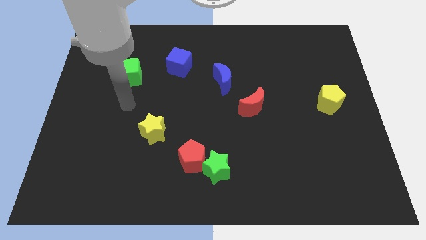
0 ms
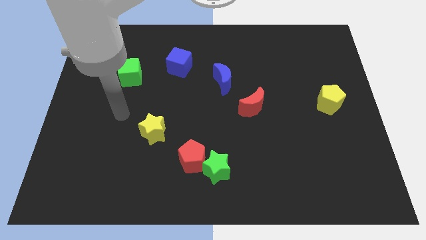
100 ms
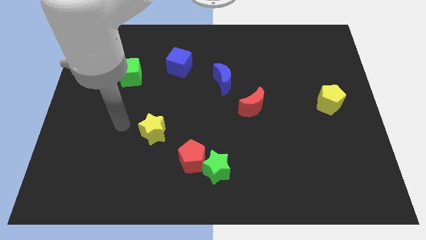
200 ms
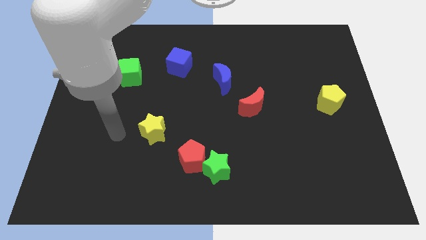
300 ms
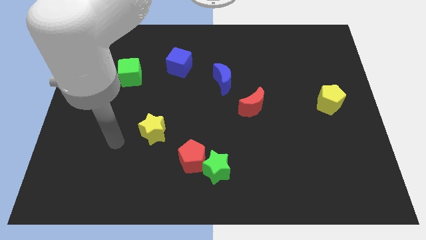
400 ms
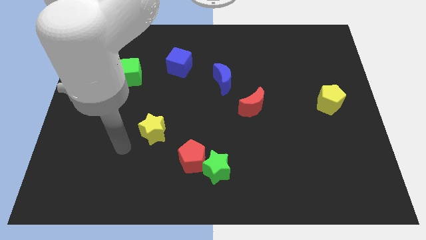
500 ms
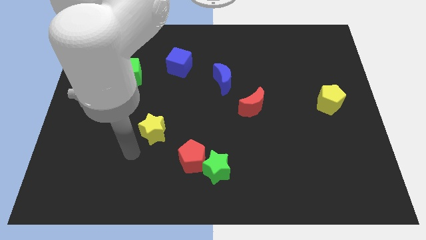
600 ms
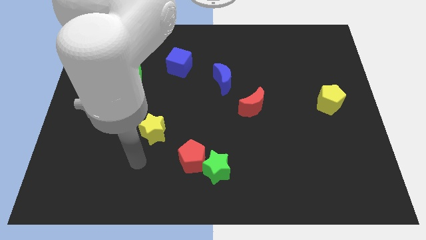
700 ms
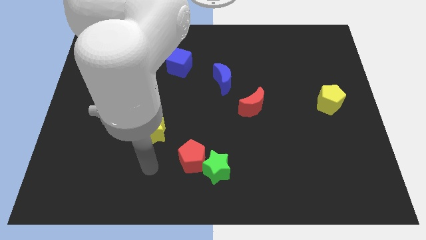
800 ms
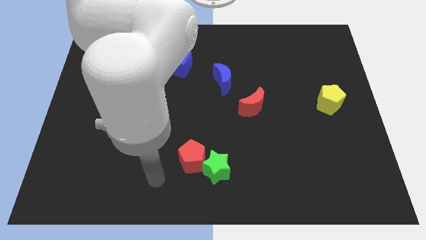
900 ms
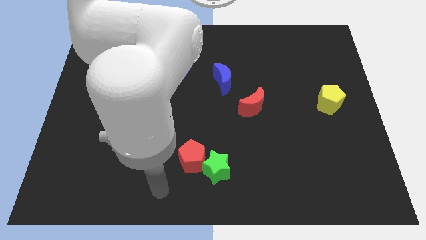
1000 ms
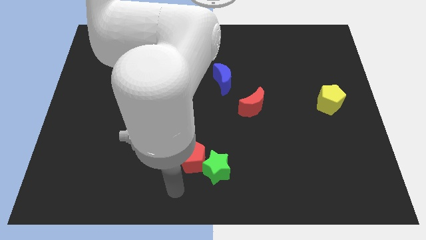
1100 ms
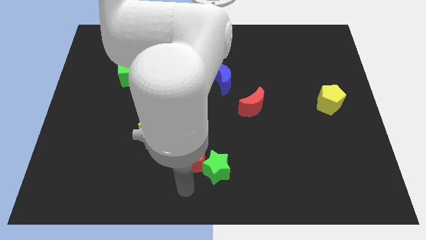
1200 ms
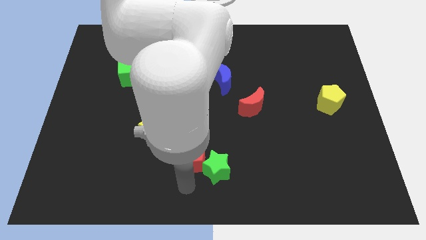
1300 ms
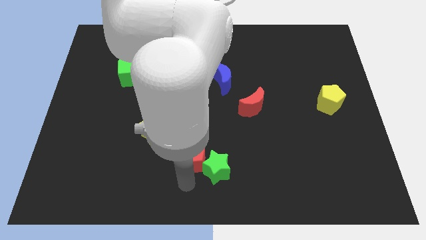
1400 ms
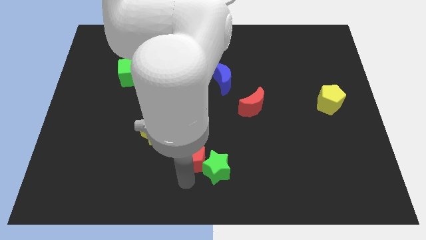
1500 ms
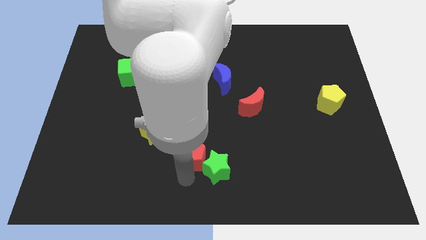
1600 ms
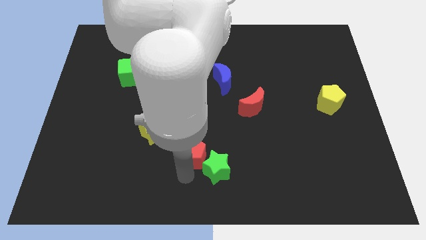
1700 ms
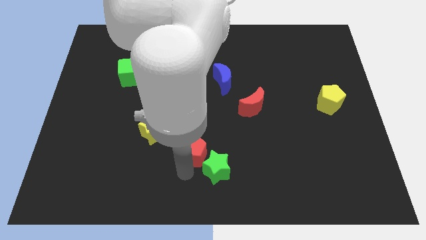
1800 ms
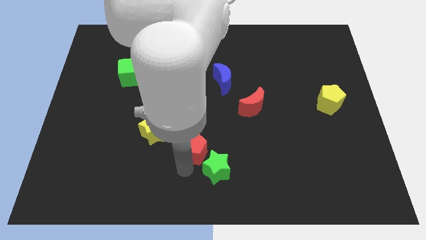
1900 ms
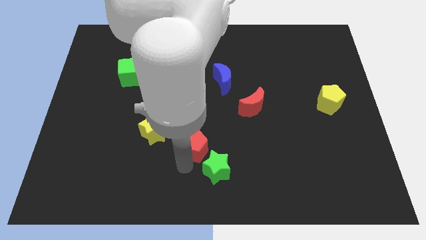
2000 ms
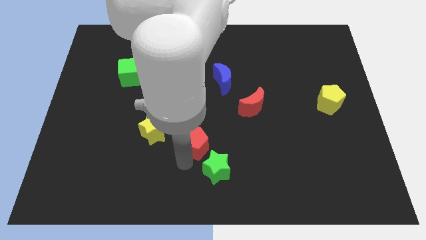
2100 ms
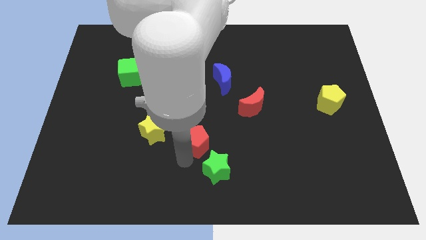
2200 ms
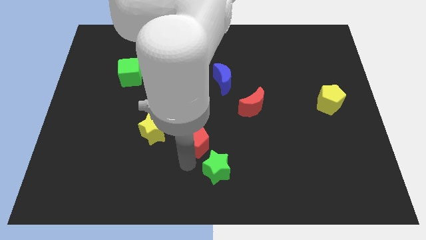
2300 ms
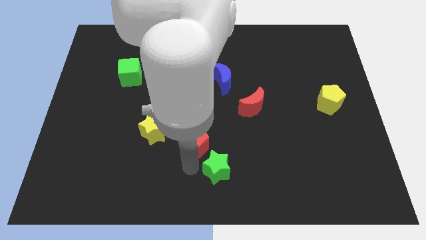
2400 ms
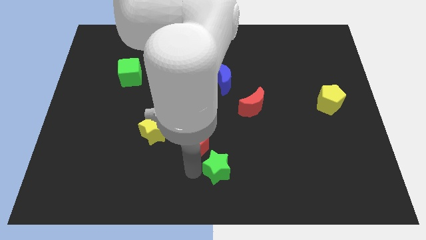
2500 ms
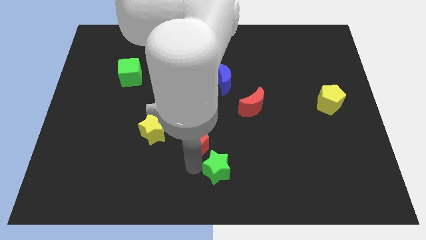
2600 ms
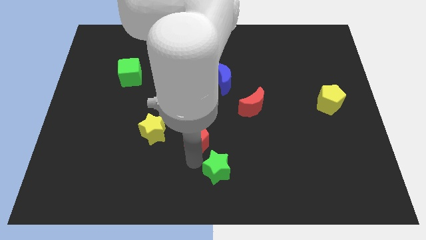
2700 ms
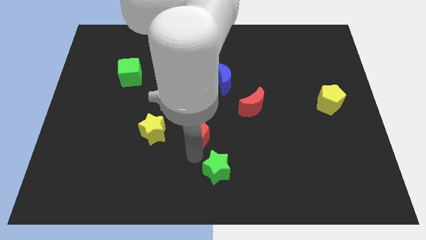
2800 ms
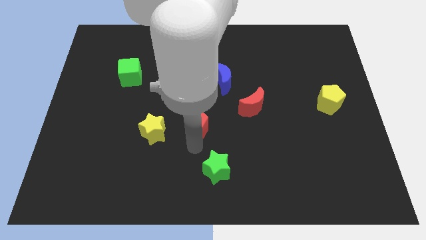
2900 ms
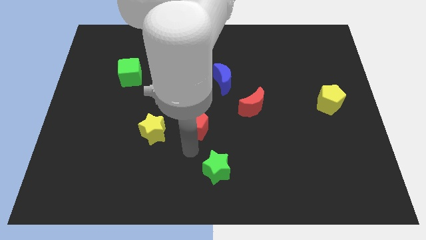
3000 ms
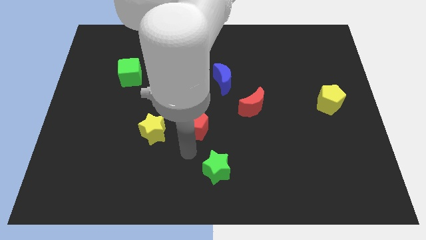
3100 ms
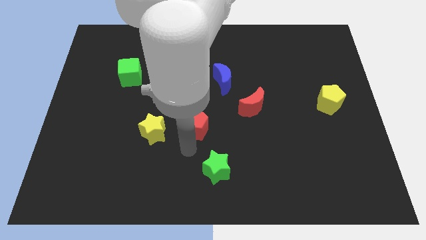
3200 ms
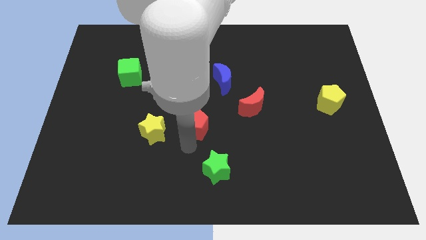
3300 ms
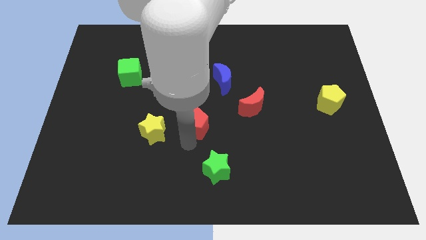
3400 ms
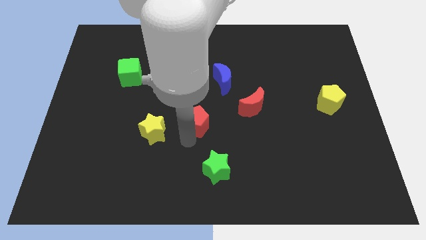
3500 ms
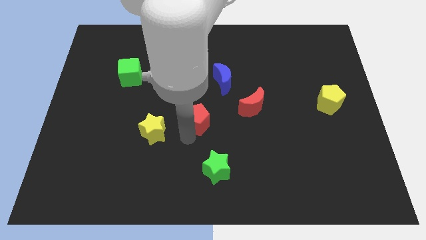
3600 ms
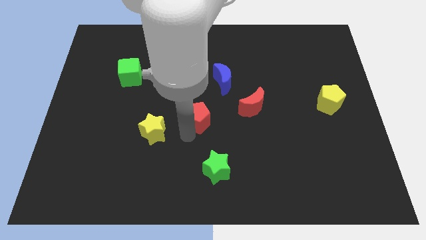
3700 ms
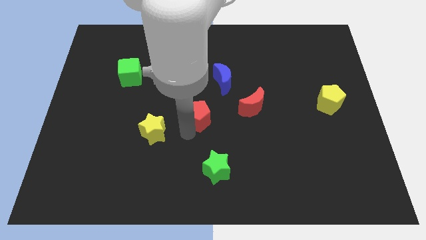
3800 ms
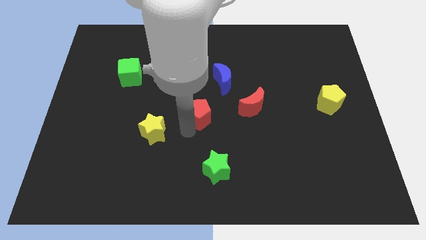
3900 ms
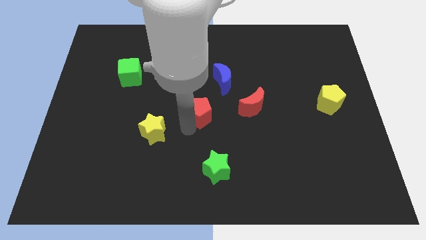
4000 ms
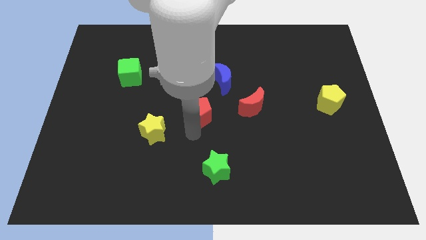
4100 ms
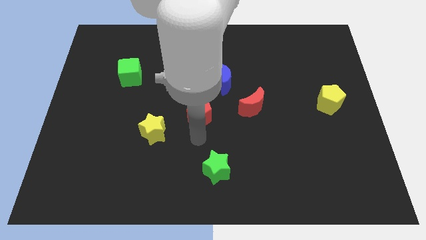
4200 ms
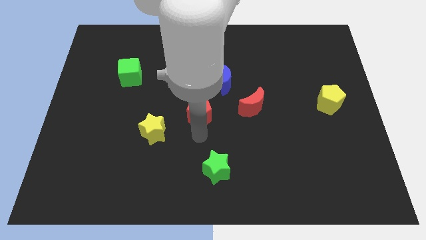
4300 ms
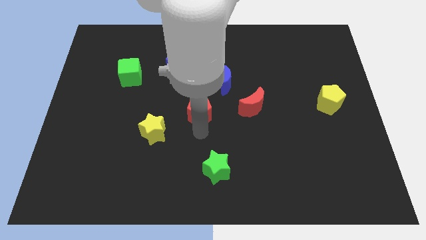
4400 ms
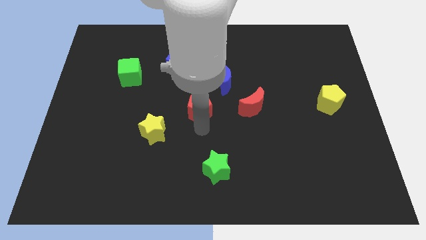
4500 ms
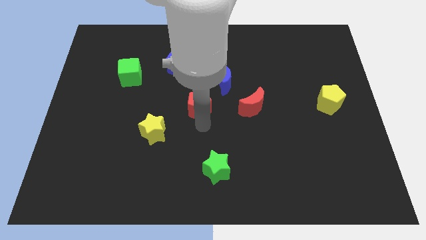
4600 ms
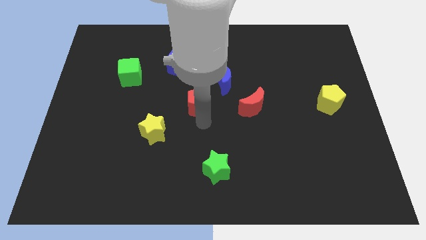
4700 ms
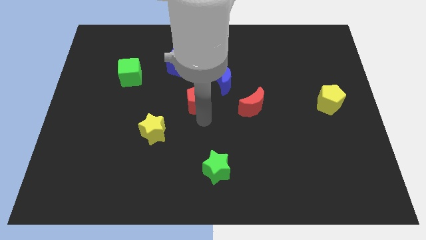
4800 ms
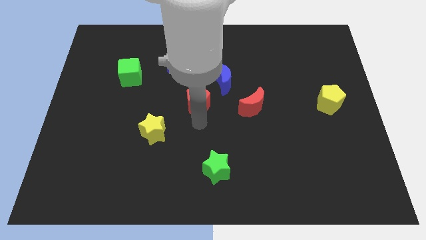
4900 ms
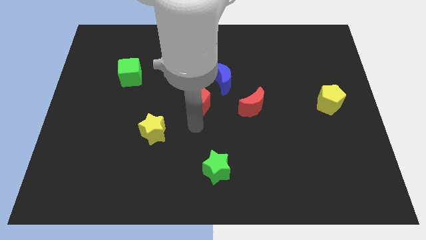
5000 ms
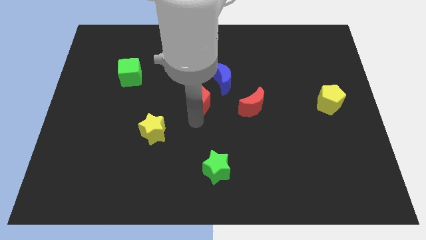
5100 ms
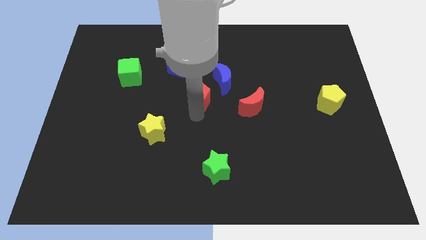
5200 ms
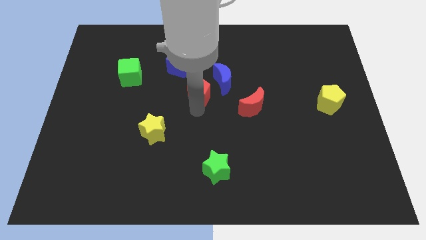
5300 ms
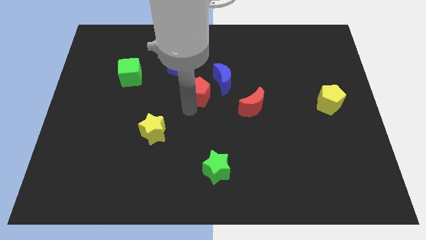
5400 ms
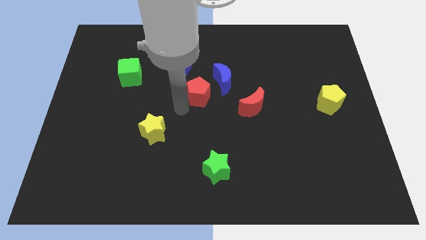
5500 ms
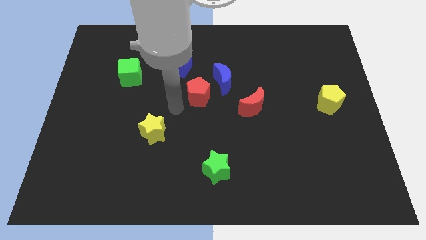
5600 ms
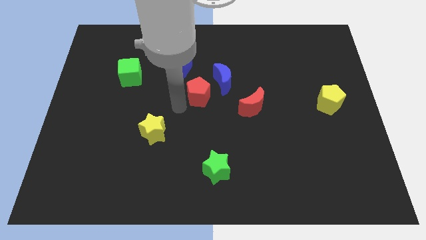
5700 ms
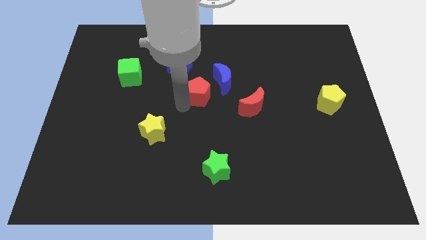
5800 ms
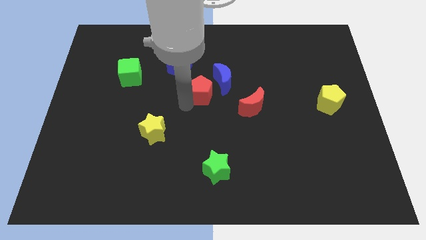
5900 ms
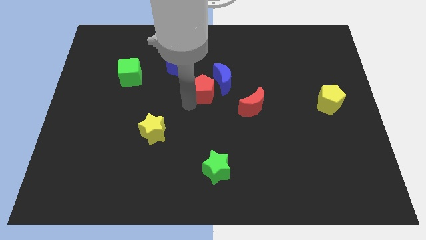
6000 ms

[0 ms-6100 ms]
slide the red pentagon next to the blue moon

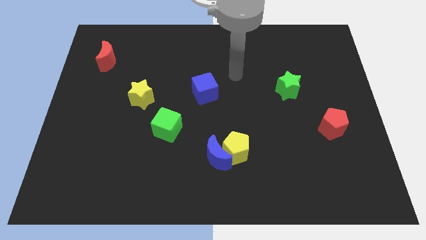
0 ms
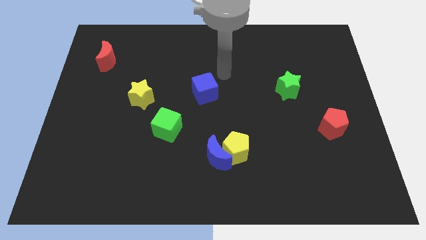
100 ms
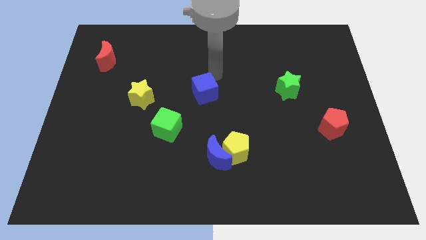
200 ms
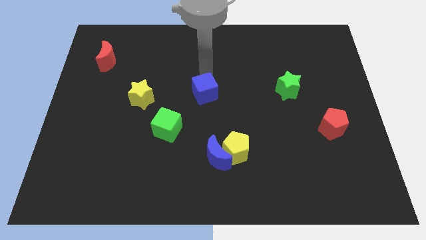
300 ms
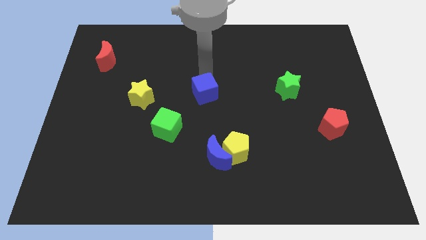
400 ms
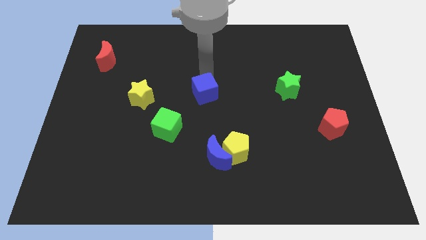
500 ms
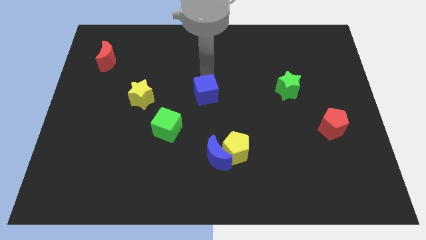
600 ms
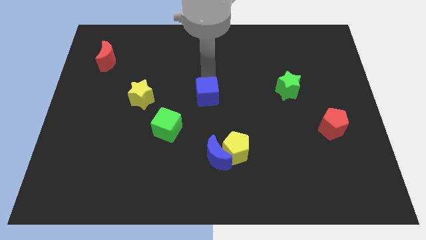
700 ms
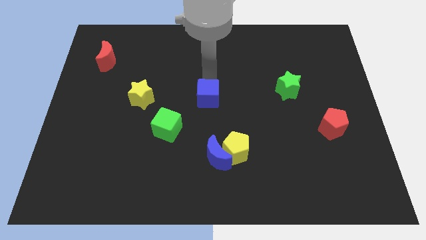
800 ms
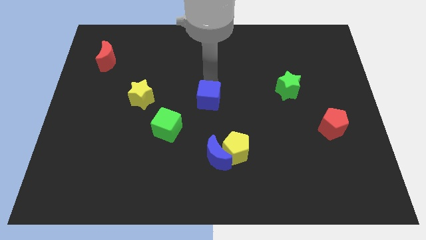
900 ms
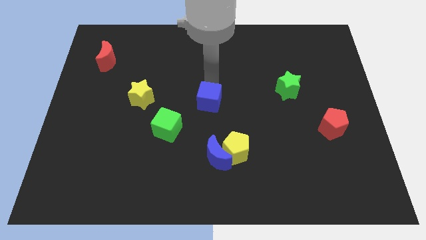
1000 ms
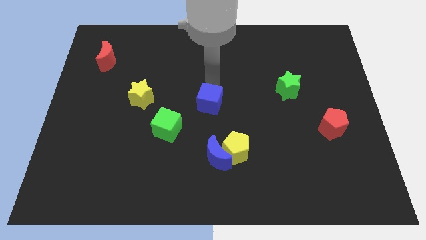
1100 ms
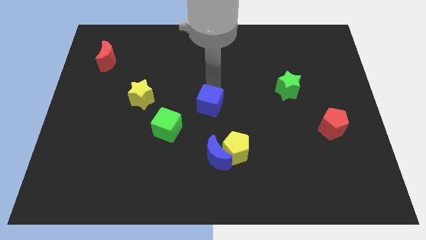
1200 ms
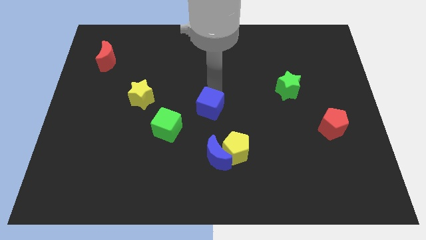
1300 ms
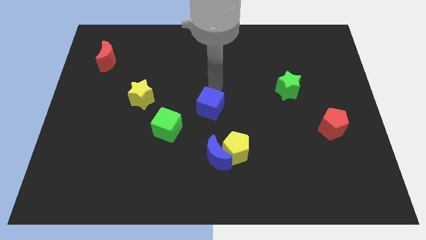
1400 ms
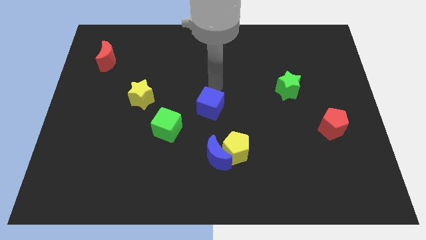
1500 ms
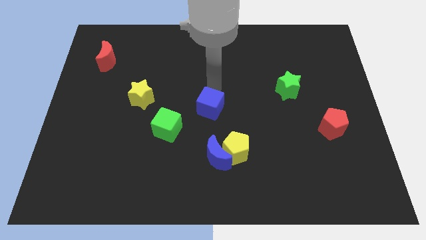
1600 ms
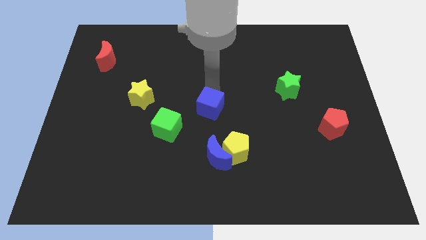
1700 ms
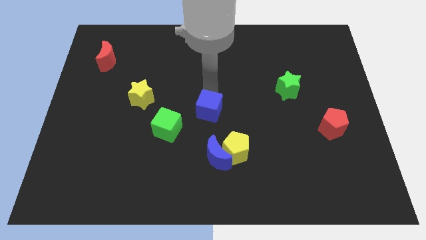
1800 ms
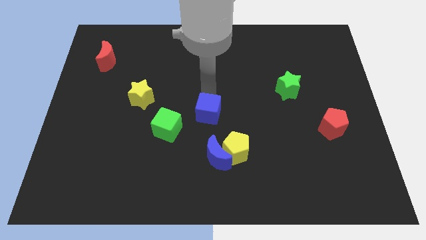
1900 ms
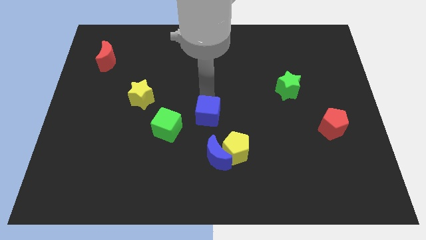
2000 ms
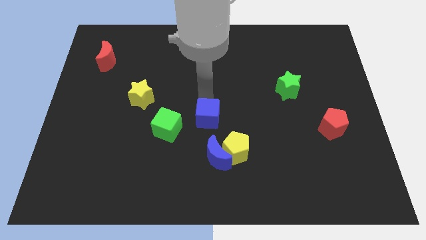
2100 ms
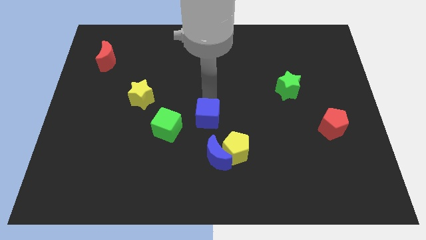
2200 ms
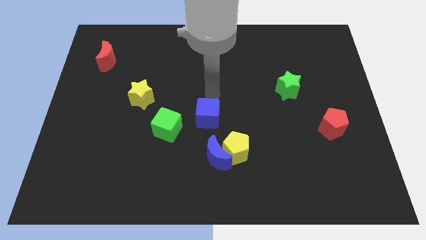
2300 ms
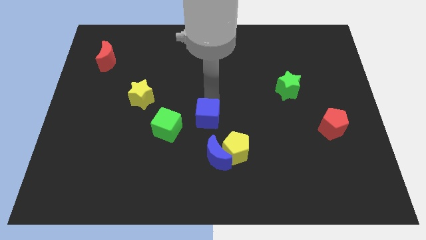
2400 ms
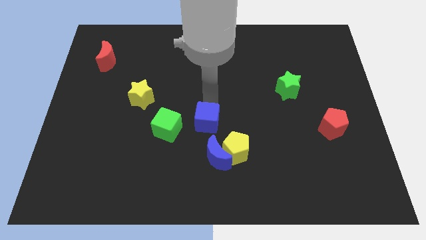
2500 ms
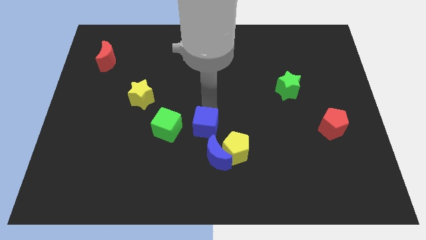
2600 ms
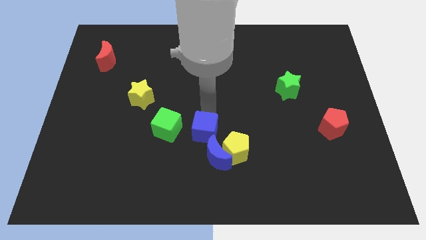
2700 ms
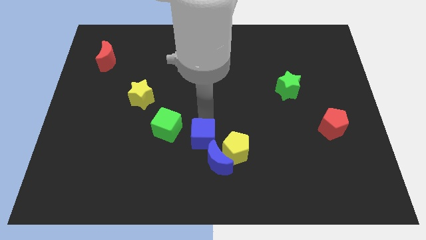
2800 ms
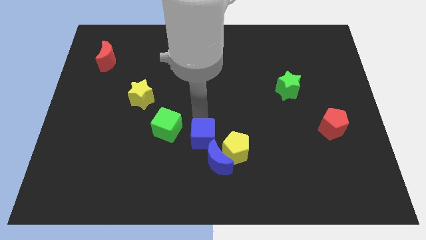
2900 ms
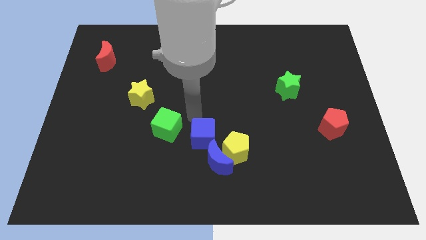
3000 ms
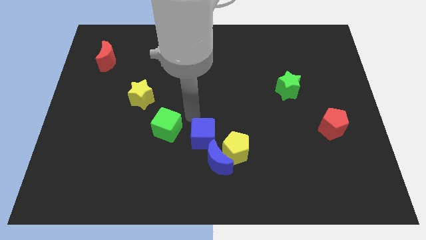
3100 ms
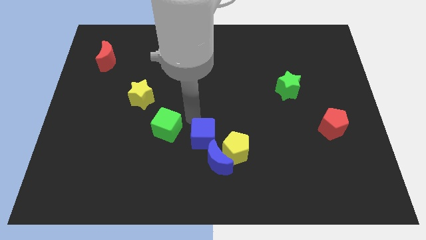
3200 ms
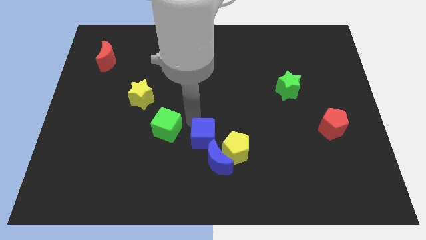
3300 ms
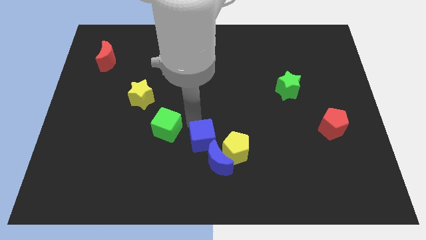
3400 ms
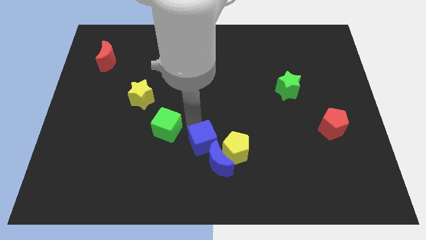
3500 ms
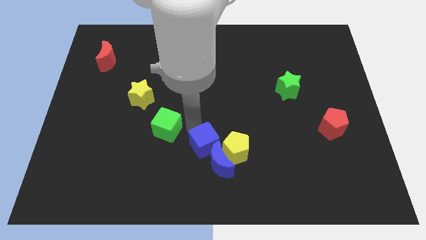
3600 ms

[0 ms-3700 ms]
push the blue cube next to the blue moon
